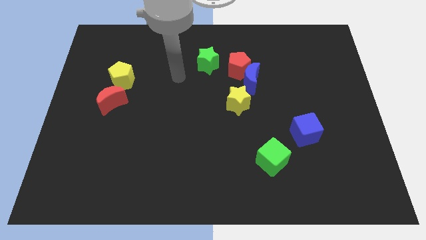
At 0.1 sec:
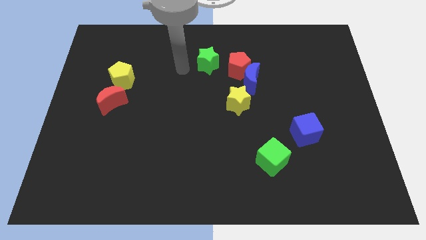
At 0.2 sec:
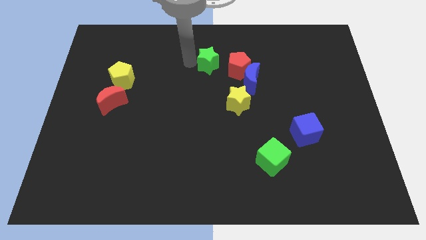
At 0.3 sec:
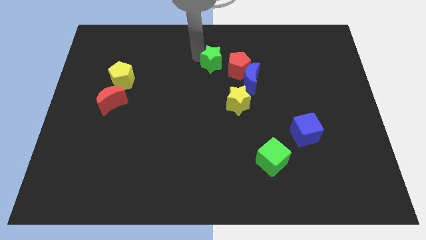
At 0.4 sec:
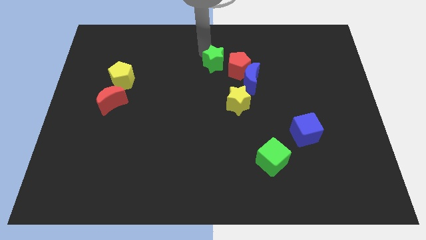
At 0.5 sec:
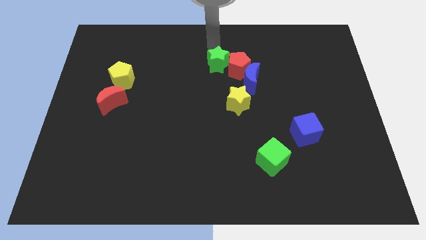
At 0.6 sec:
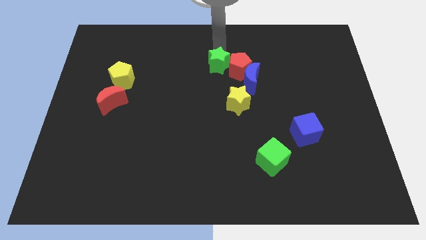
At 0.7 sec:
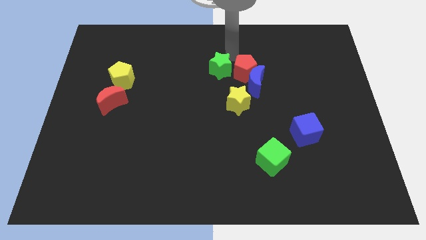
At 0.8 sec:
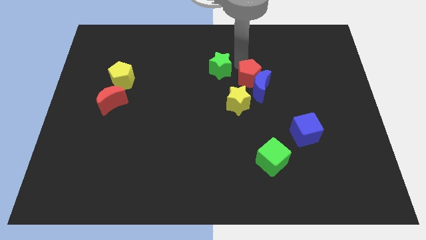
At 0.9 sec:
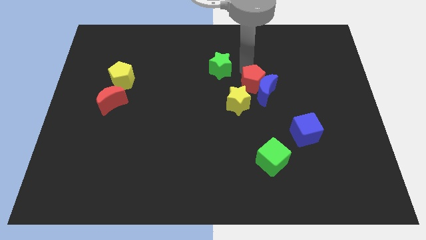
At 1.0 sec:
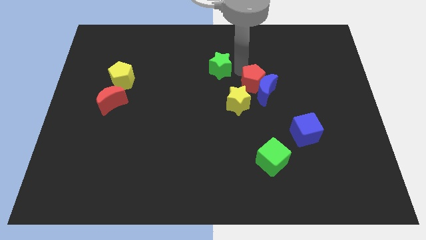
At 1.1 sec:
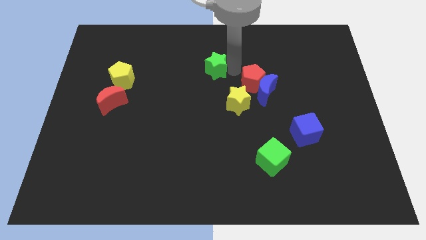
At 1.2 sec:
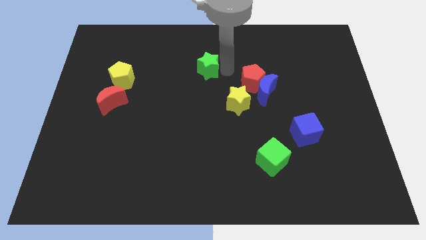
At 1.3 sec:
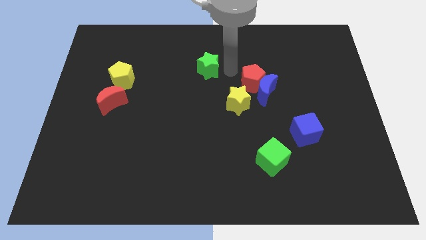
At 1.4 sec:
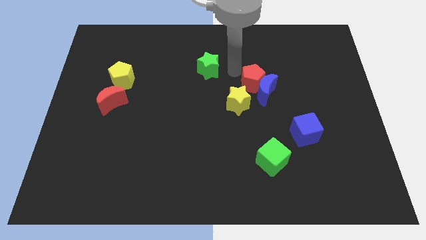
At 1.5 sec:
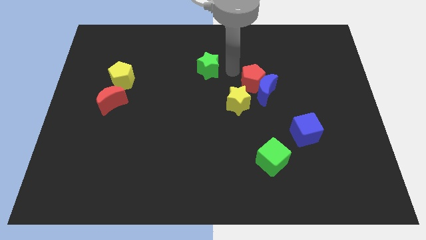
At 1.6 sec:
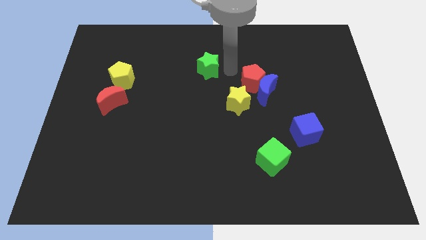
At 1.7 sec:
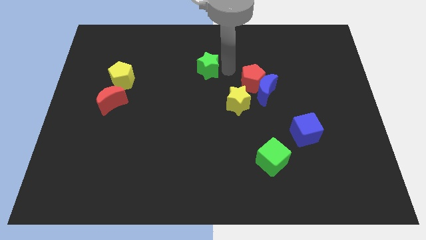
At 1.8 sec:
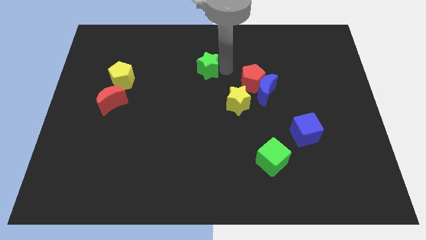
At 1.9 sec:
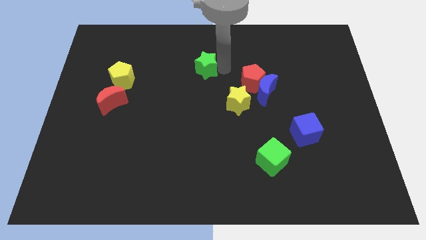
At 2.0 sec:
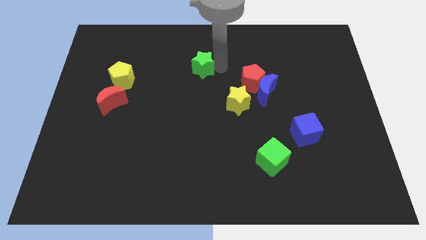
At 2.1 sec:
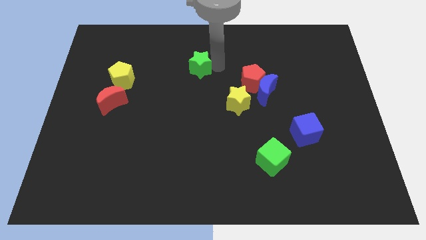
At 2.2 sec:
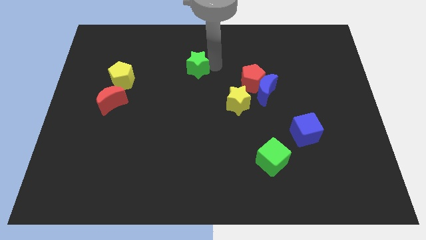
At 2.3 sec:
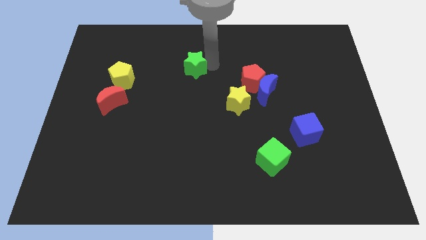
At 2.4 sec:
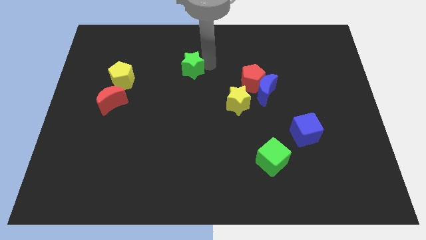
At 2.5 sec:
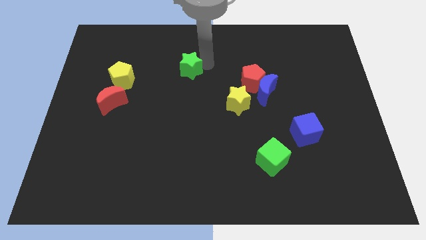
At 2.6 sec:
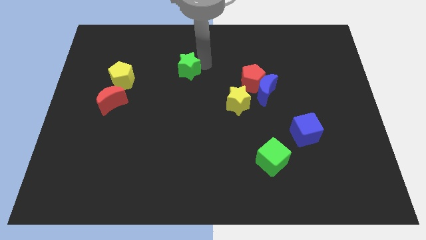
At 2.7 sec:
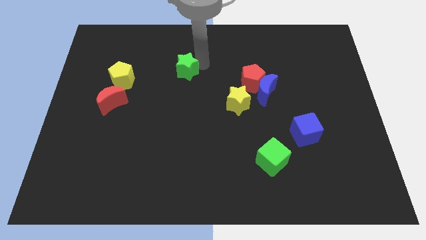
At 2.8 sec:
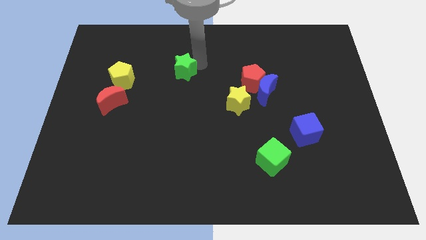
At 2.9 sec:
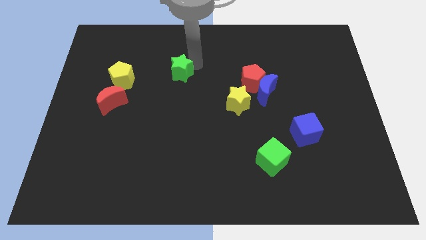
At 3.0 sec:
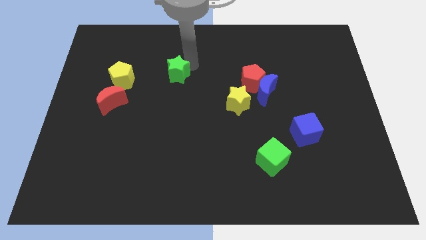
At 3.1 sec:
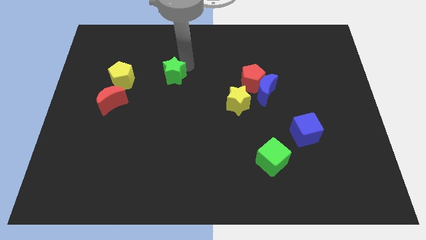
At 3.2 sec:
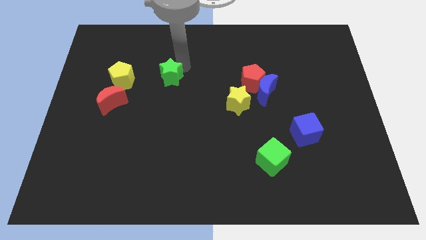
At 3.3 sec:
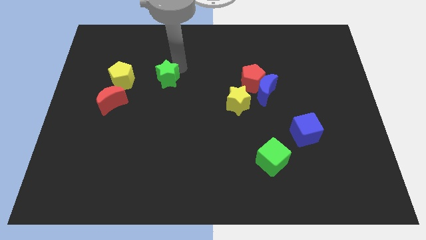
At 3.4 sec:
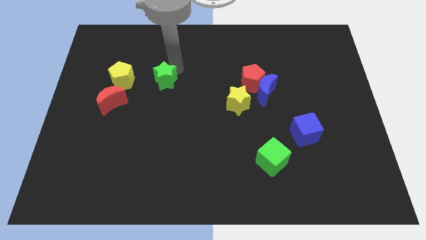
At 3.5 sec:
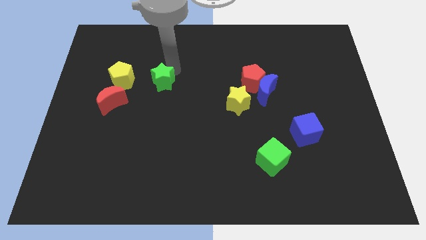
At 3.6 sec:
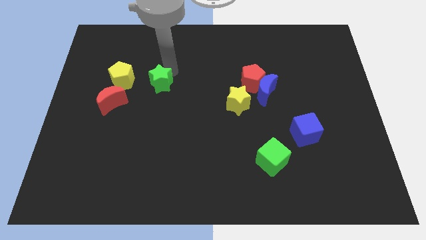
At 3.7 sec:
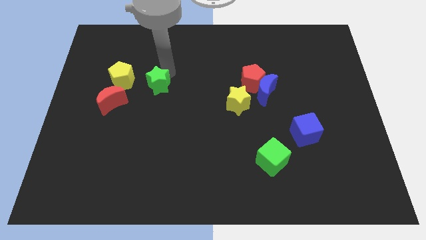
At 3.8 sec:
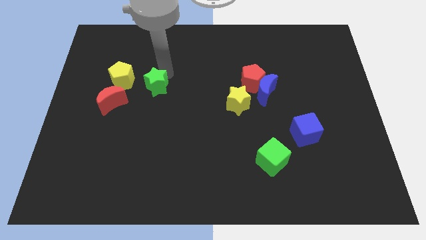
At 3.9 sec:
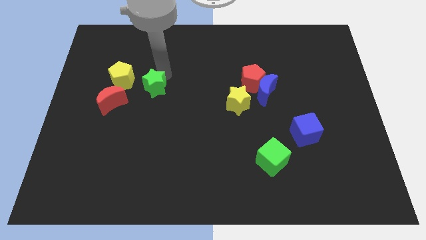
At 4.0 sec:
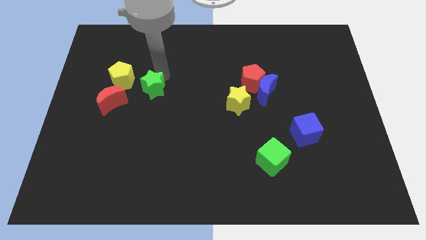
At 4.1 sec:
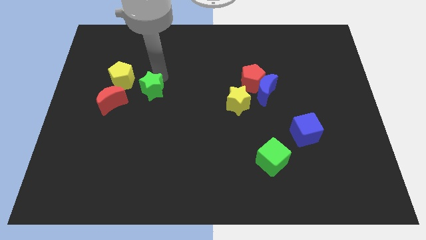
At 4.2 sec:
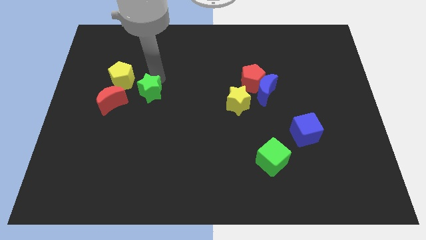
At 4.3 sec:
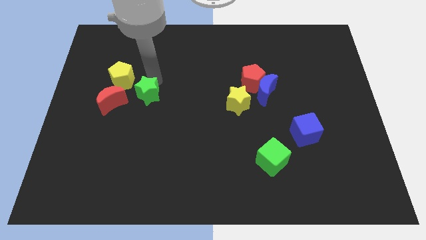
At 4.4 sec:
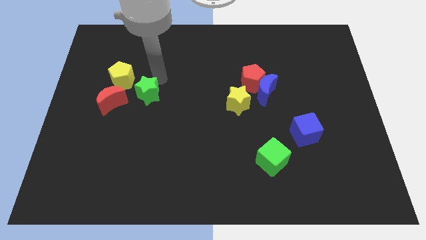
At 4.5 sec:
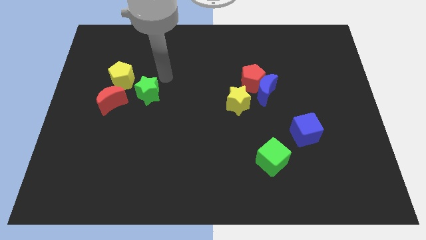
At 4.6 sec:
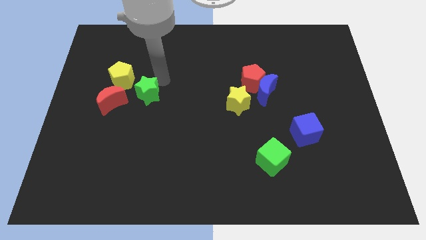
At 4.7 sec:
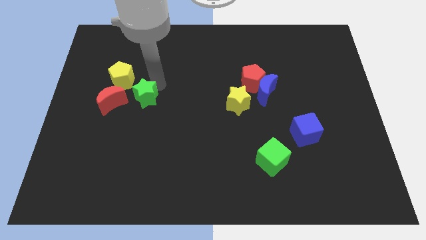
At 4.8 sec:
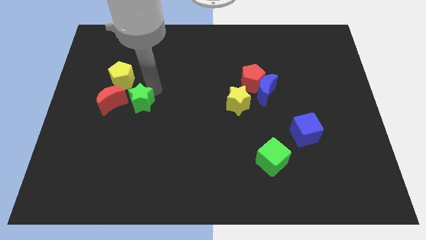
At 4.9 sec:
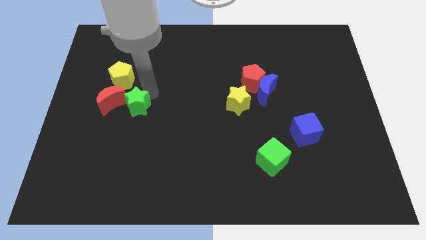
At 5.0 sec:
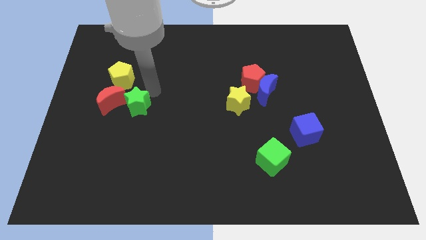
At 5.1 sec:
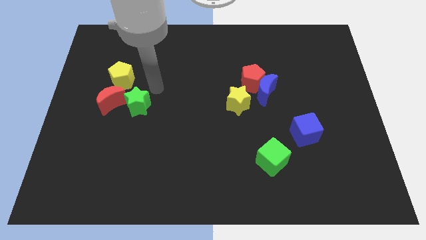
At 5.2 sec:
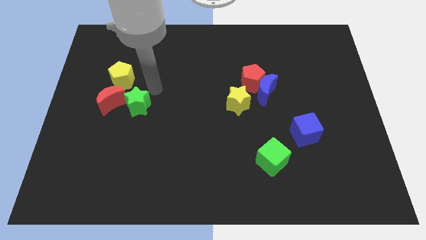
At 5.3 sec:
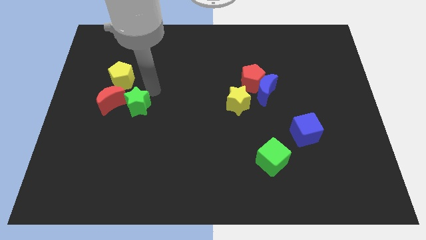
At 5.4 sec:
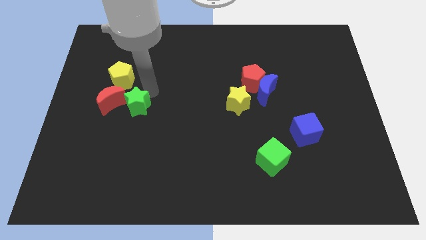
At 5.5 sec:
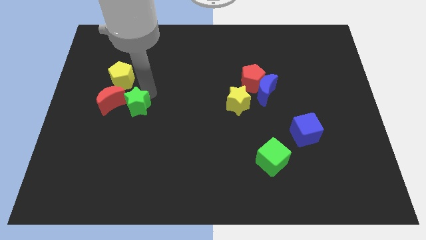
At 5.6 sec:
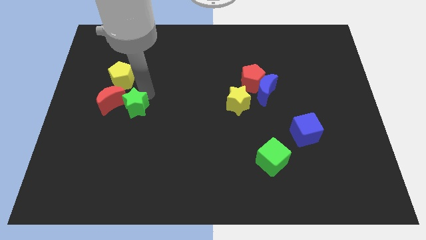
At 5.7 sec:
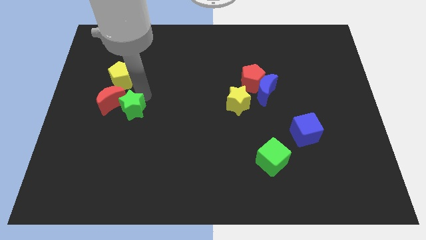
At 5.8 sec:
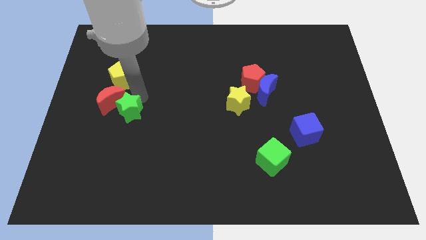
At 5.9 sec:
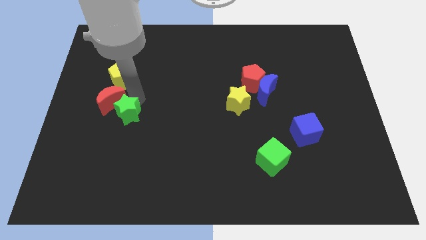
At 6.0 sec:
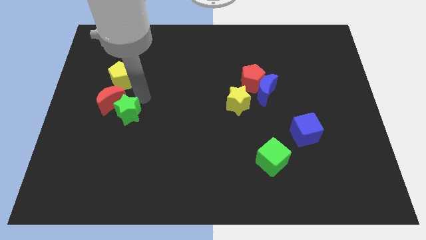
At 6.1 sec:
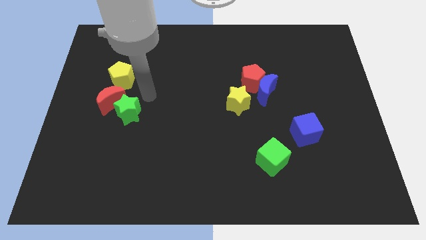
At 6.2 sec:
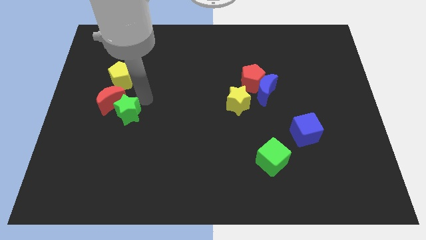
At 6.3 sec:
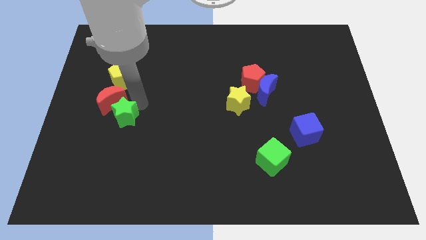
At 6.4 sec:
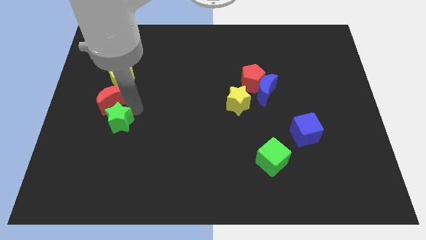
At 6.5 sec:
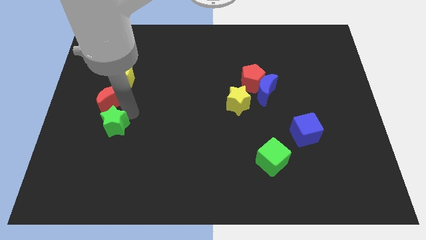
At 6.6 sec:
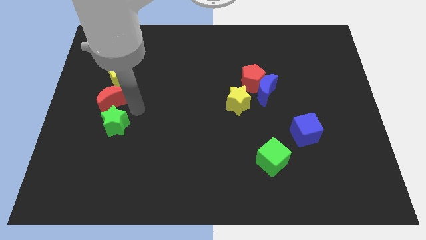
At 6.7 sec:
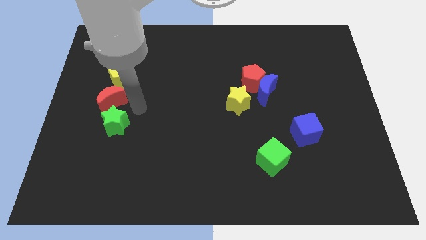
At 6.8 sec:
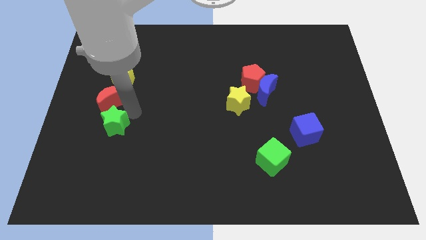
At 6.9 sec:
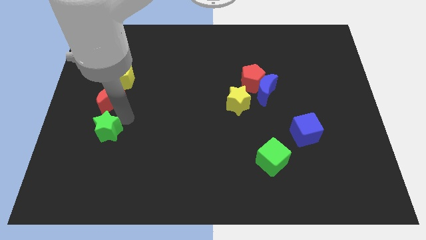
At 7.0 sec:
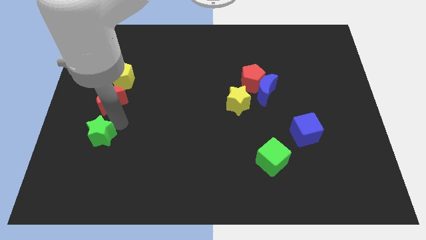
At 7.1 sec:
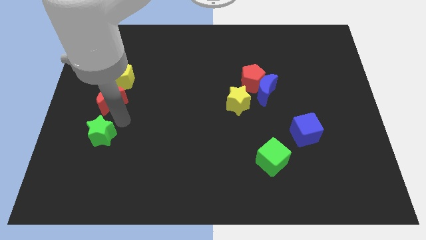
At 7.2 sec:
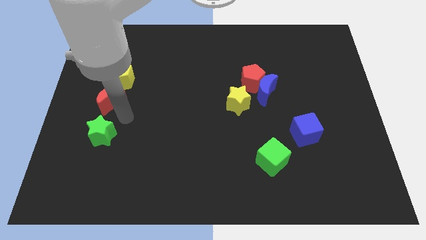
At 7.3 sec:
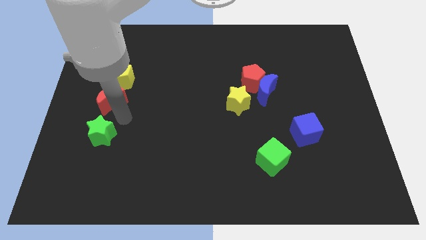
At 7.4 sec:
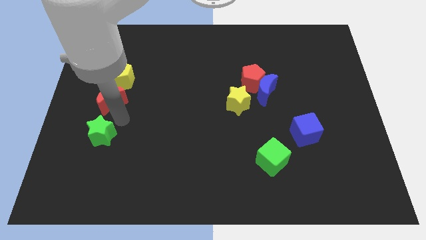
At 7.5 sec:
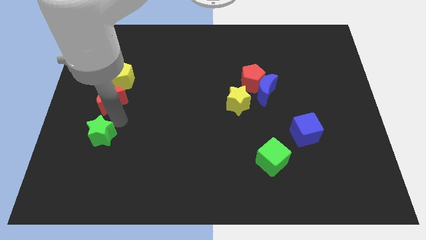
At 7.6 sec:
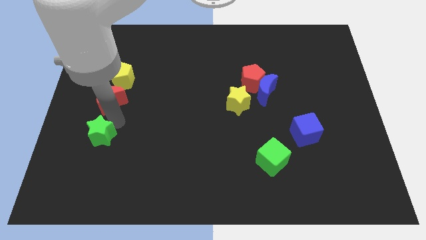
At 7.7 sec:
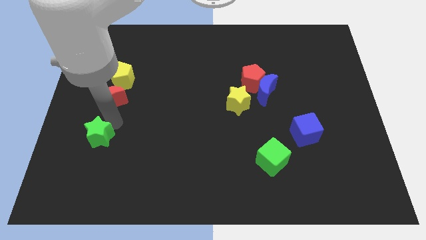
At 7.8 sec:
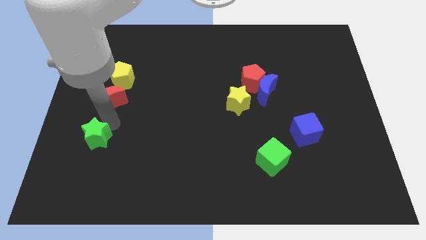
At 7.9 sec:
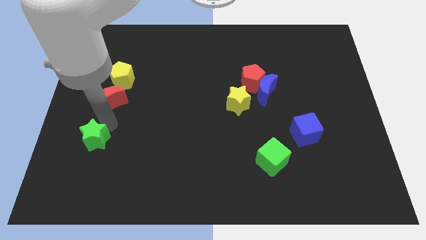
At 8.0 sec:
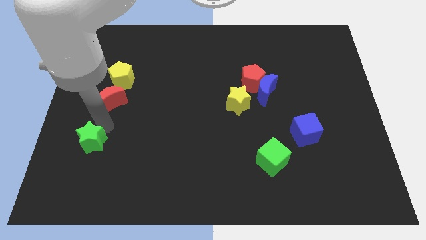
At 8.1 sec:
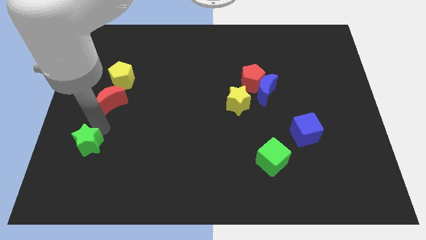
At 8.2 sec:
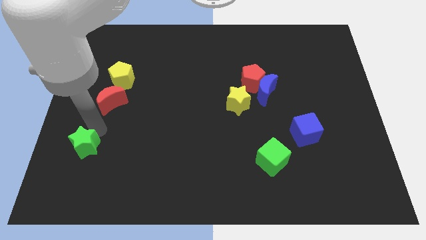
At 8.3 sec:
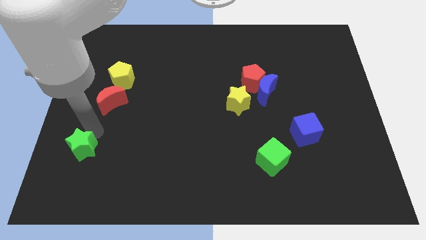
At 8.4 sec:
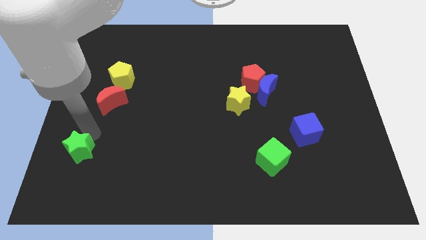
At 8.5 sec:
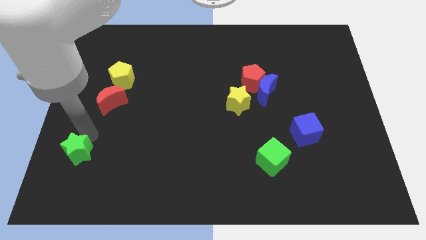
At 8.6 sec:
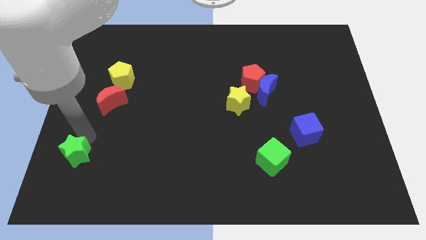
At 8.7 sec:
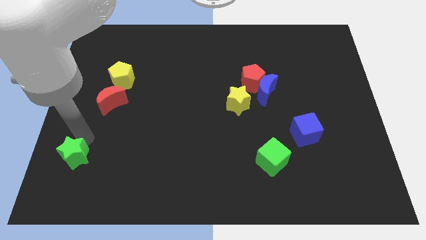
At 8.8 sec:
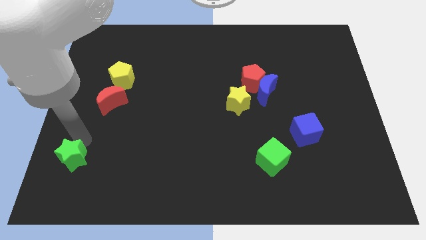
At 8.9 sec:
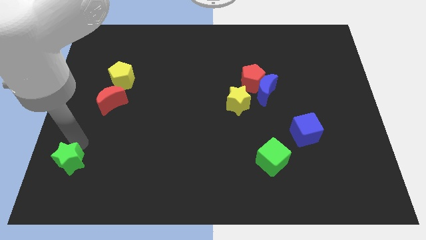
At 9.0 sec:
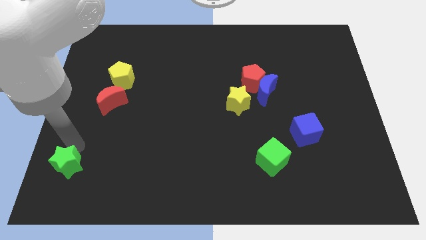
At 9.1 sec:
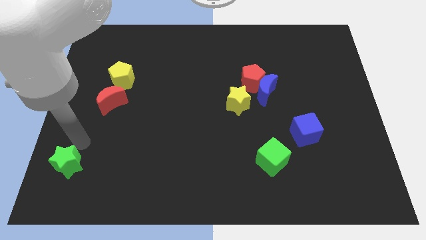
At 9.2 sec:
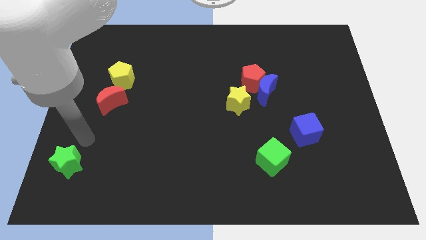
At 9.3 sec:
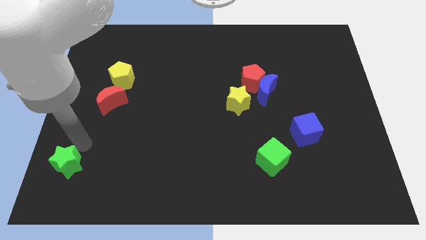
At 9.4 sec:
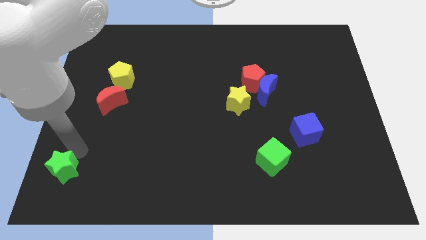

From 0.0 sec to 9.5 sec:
slide the green star to the bottom left
